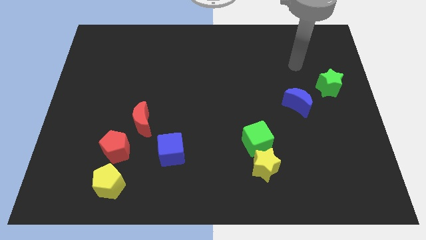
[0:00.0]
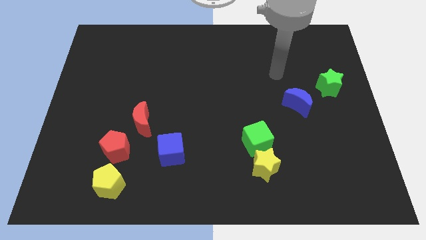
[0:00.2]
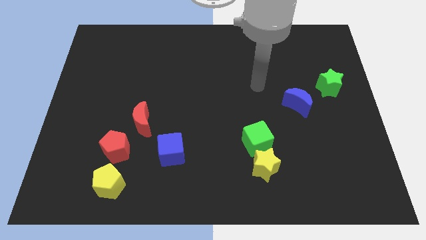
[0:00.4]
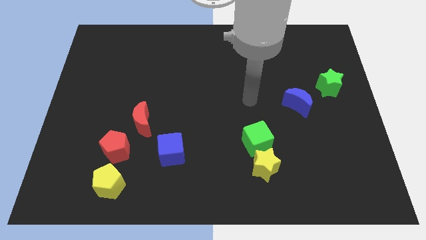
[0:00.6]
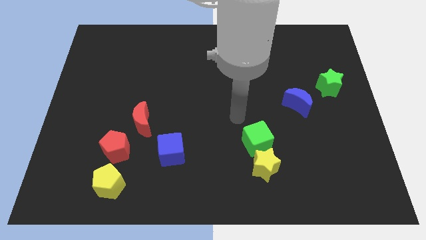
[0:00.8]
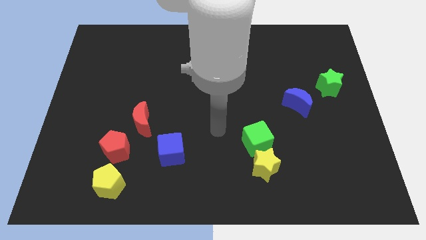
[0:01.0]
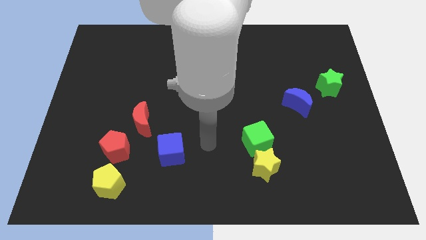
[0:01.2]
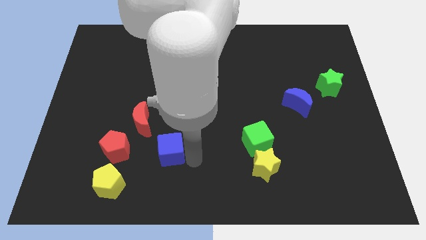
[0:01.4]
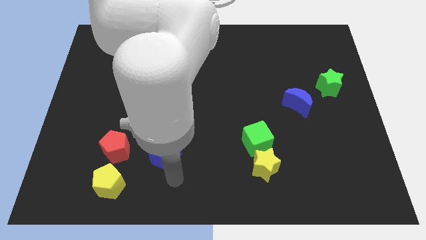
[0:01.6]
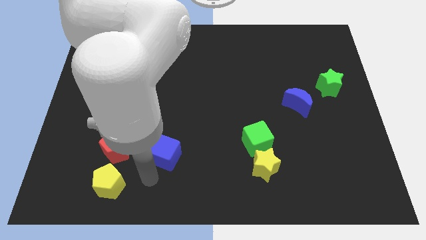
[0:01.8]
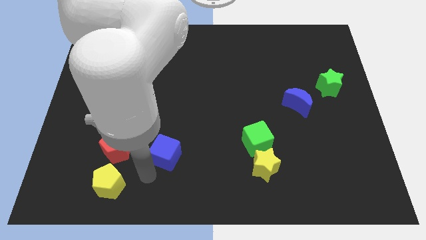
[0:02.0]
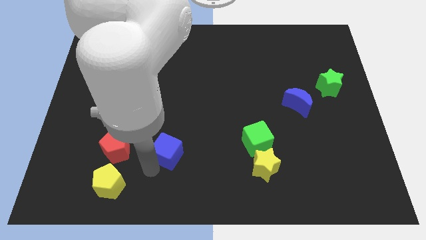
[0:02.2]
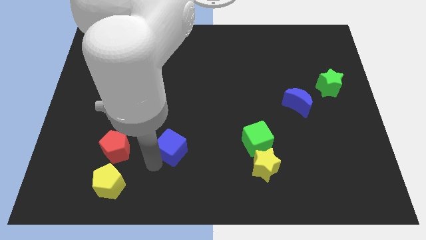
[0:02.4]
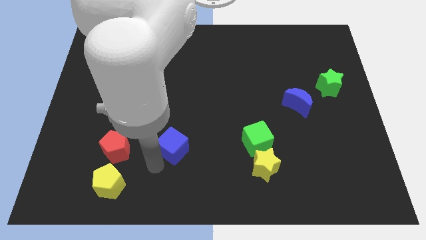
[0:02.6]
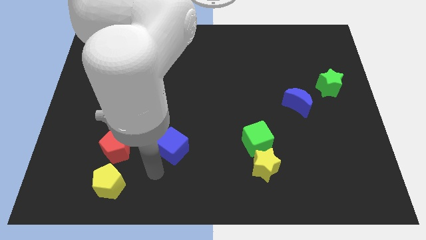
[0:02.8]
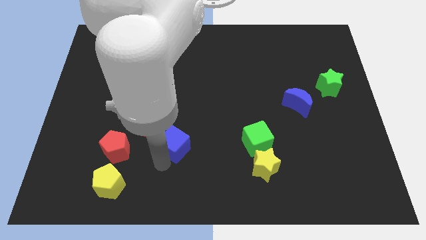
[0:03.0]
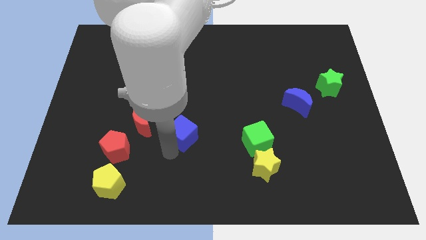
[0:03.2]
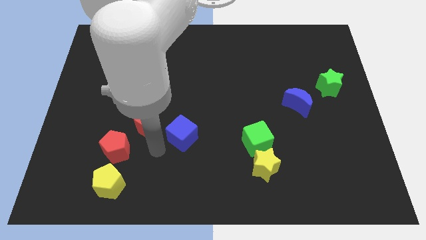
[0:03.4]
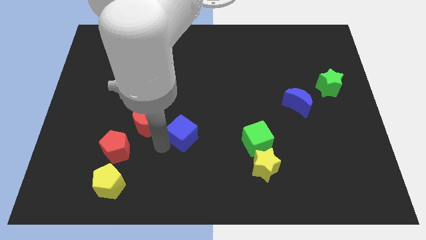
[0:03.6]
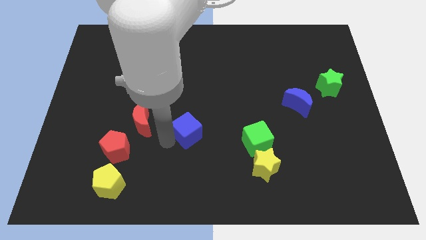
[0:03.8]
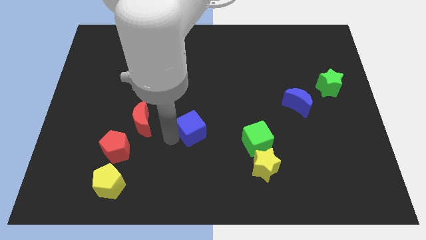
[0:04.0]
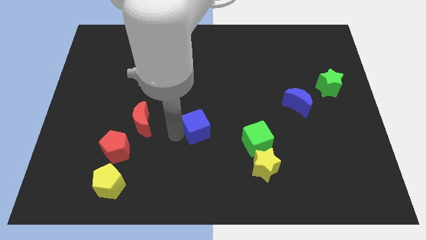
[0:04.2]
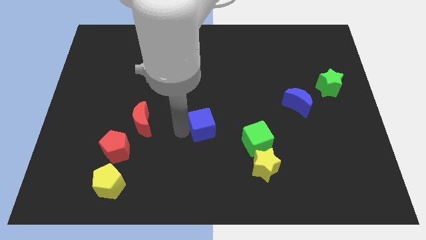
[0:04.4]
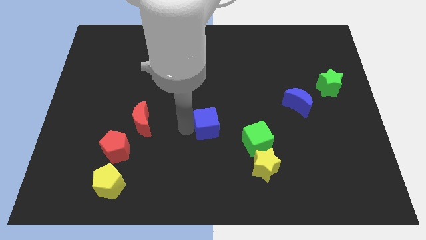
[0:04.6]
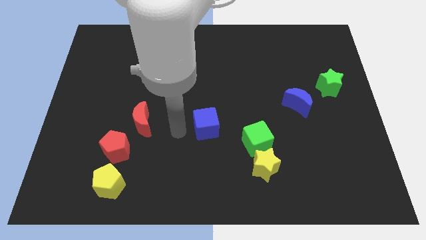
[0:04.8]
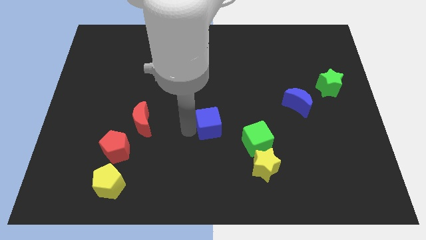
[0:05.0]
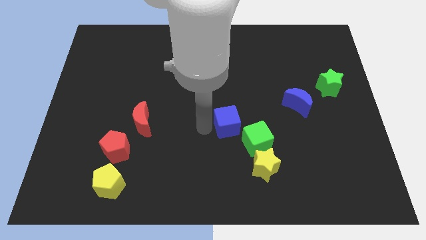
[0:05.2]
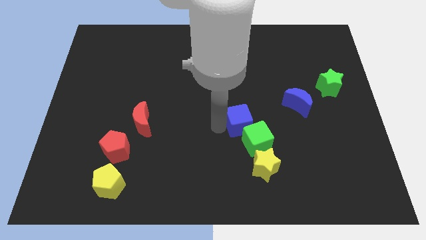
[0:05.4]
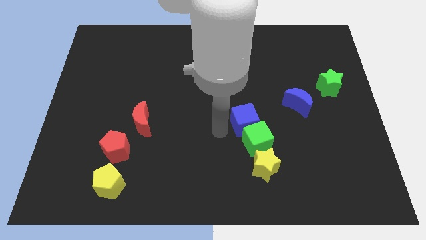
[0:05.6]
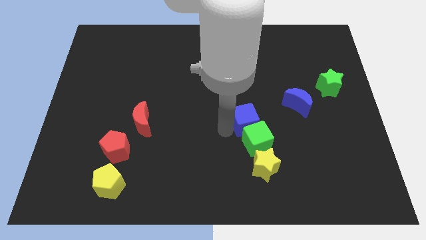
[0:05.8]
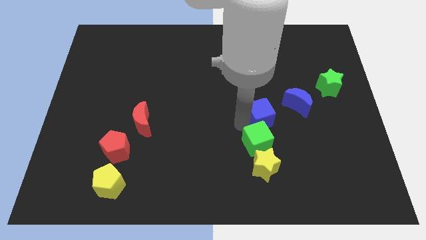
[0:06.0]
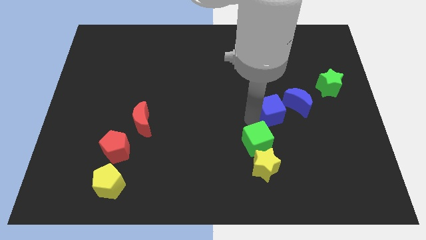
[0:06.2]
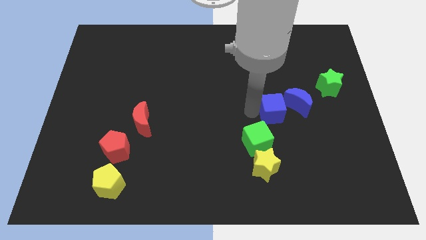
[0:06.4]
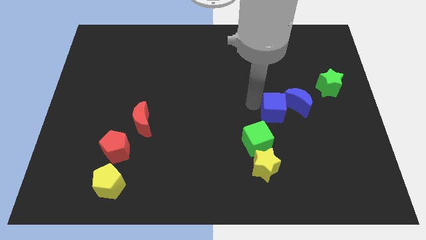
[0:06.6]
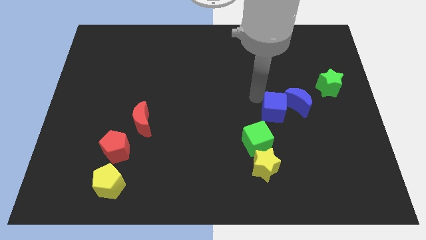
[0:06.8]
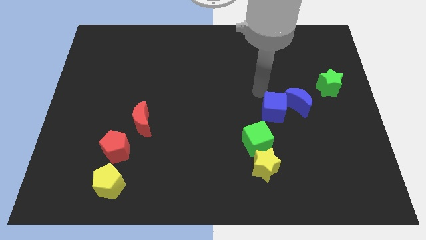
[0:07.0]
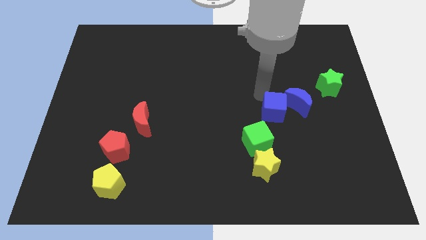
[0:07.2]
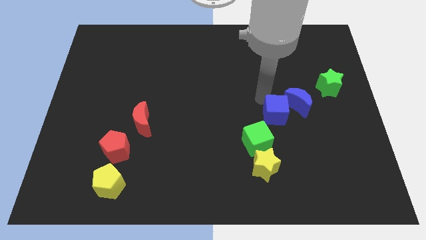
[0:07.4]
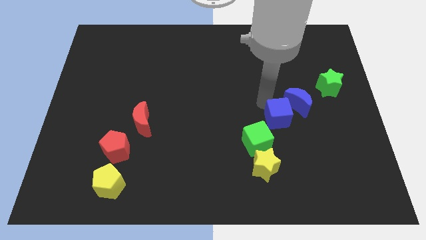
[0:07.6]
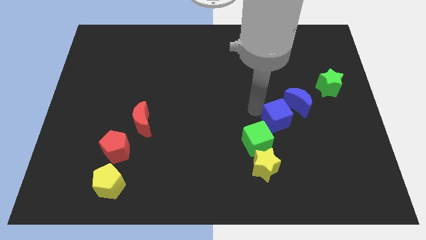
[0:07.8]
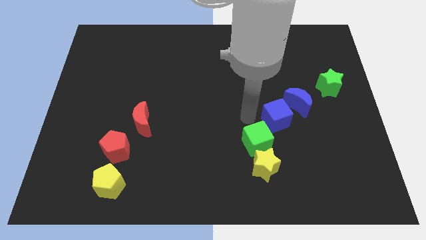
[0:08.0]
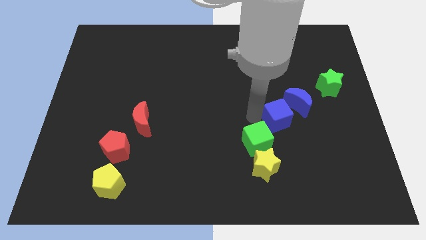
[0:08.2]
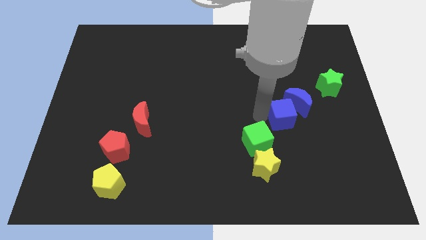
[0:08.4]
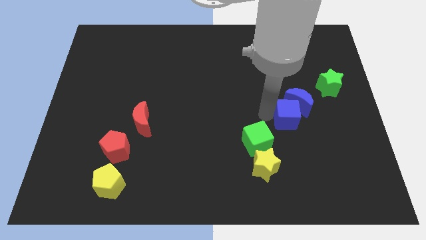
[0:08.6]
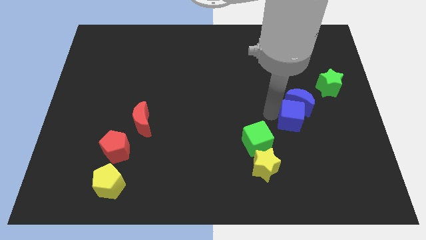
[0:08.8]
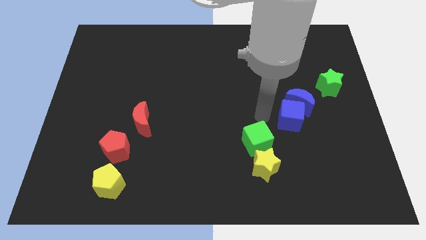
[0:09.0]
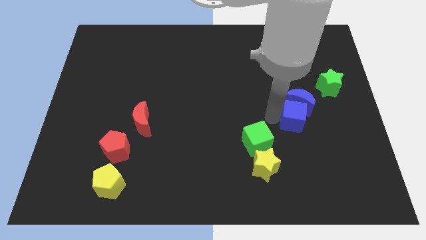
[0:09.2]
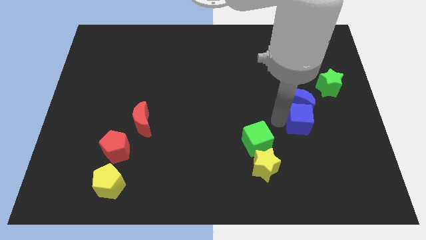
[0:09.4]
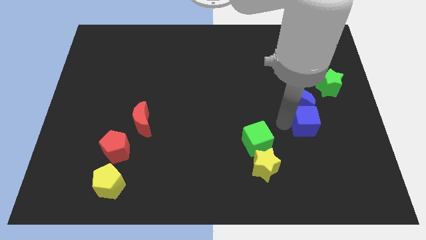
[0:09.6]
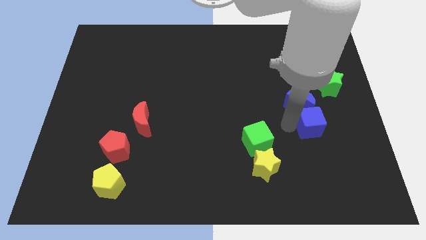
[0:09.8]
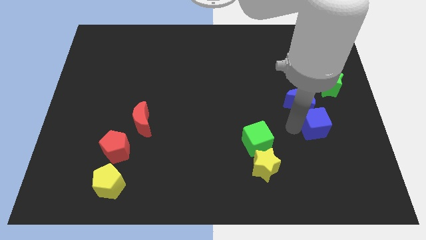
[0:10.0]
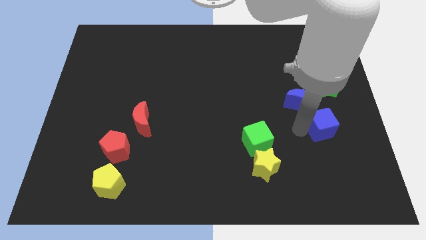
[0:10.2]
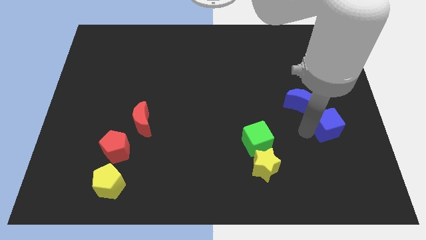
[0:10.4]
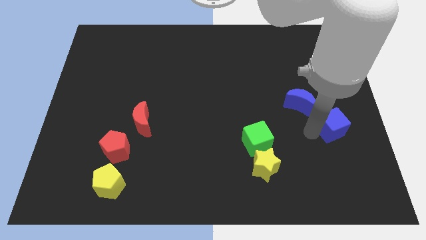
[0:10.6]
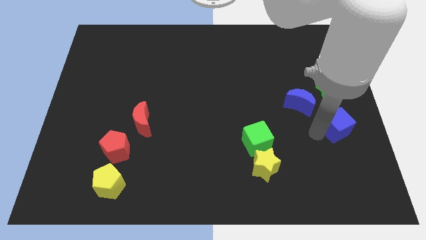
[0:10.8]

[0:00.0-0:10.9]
slide the blue cube to the right side

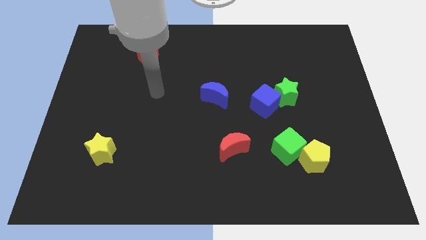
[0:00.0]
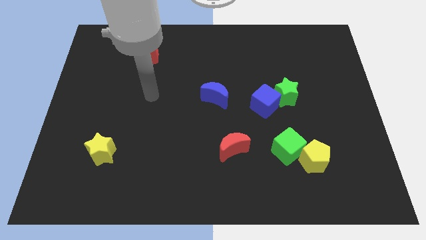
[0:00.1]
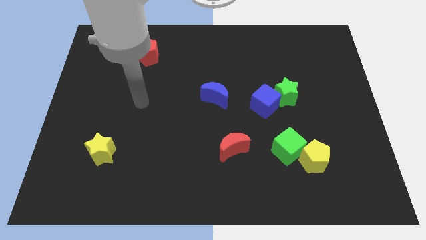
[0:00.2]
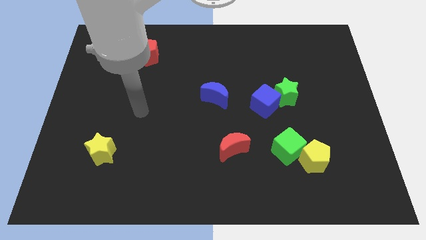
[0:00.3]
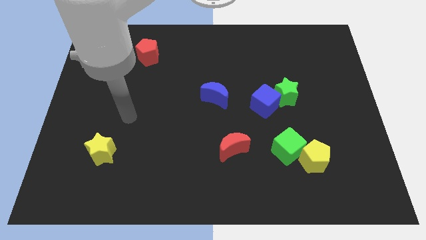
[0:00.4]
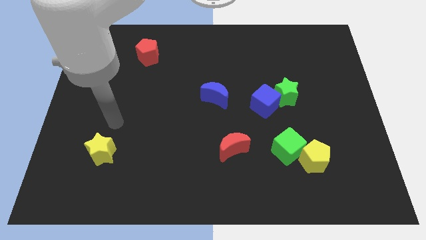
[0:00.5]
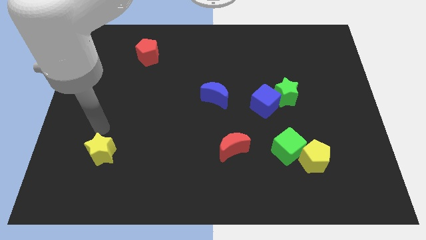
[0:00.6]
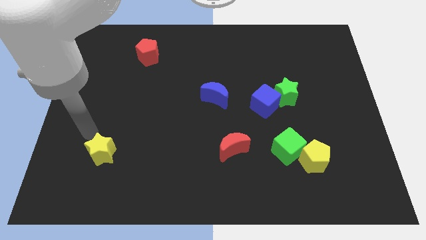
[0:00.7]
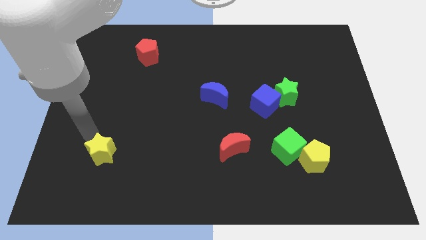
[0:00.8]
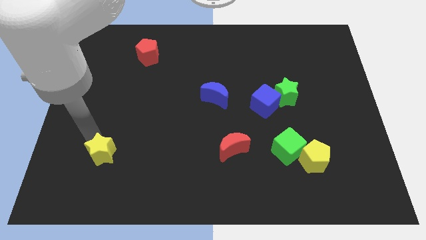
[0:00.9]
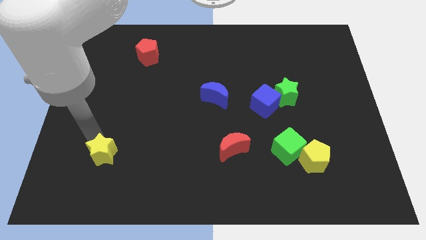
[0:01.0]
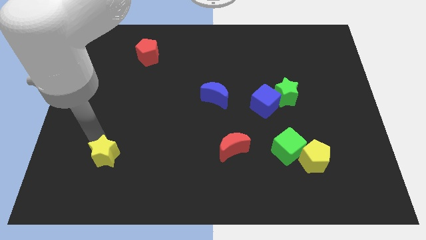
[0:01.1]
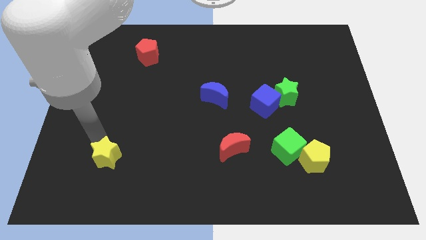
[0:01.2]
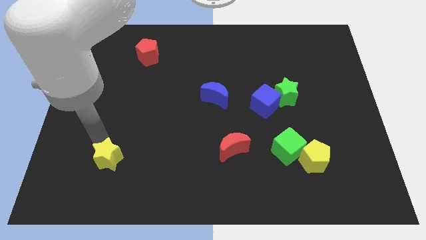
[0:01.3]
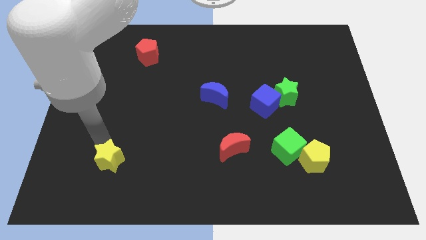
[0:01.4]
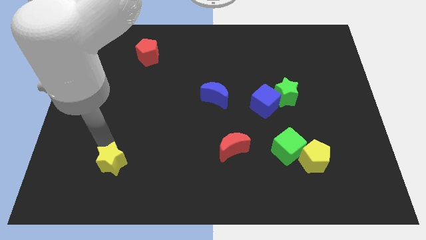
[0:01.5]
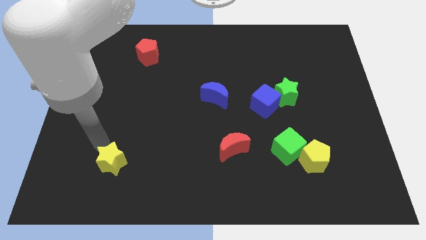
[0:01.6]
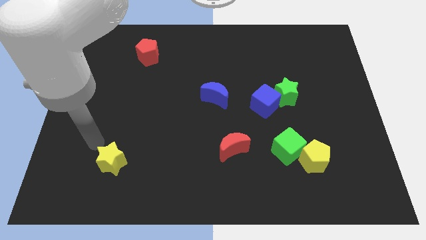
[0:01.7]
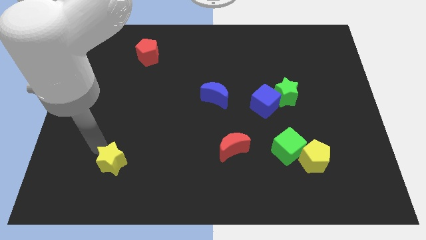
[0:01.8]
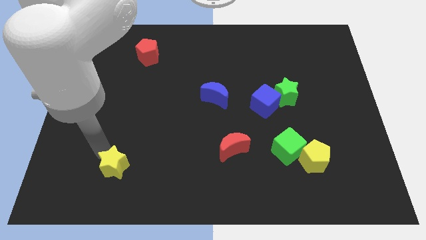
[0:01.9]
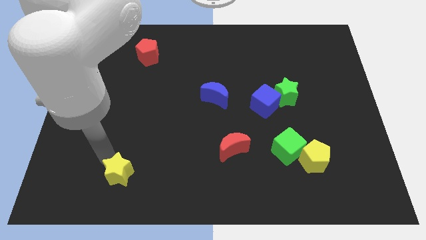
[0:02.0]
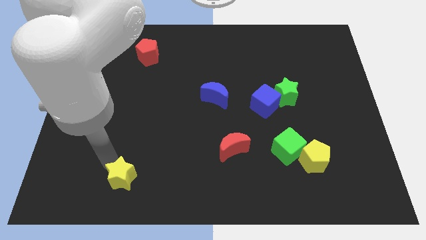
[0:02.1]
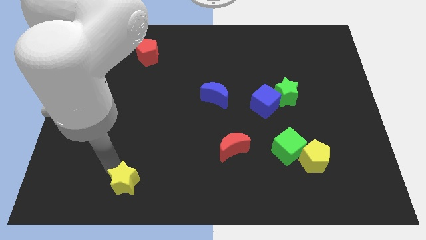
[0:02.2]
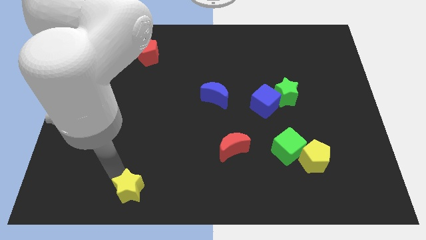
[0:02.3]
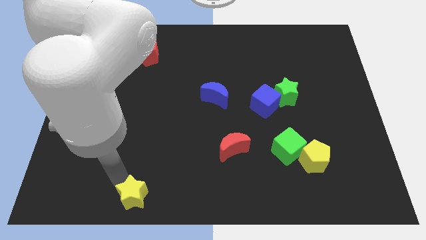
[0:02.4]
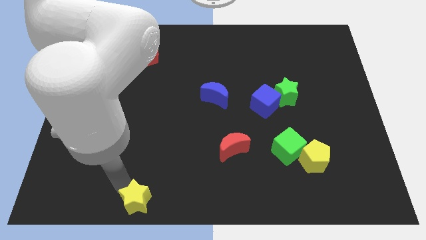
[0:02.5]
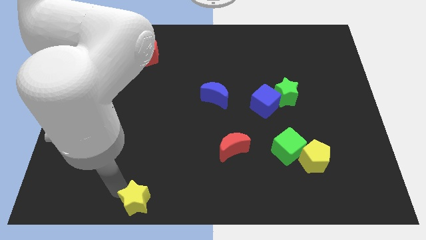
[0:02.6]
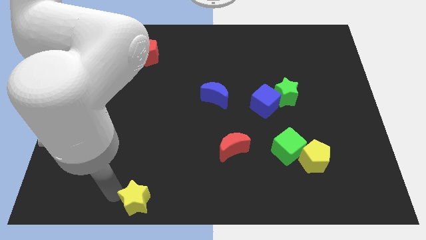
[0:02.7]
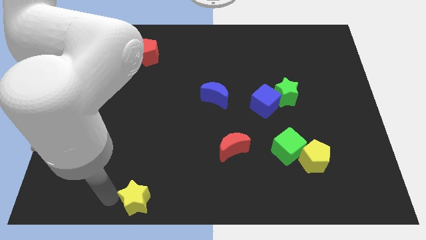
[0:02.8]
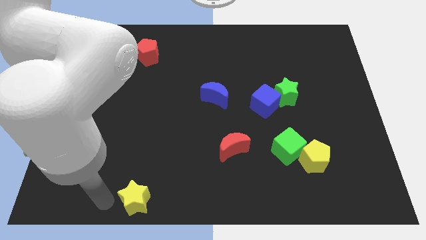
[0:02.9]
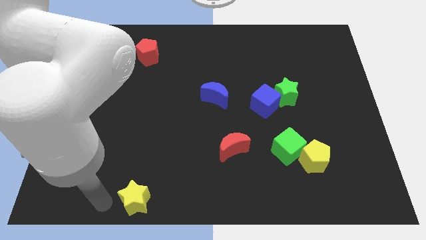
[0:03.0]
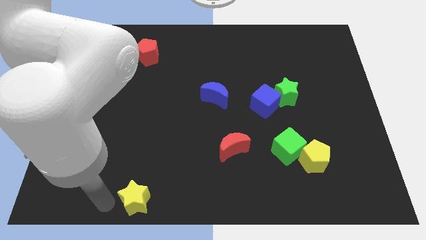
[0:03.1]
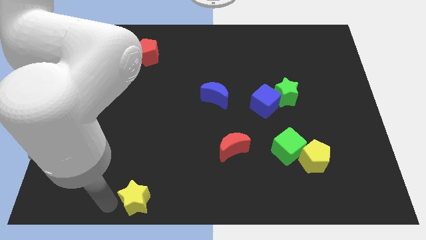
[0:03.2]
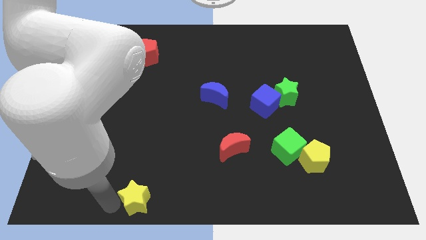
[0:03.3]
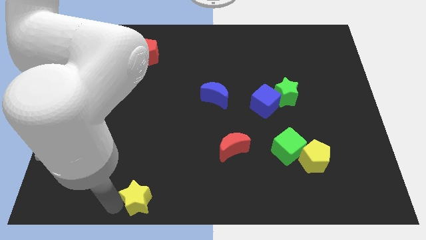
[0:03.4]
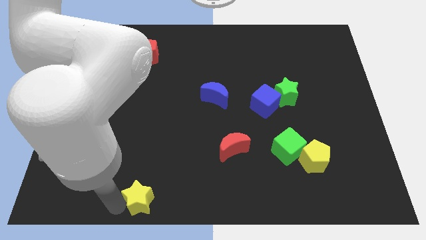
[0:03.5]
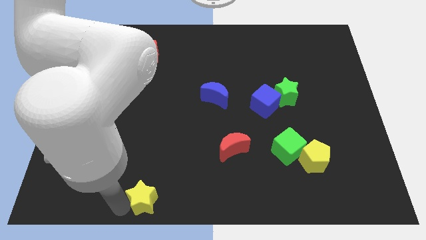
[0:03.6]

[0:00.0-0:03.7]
put the yellow star to the bottom side
